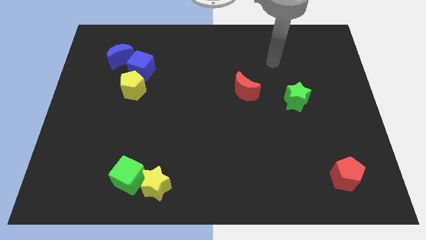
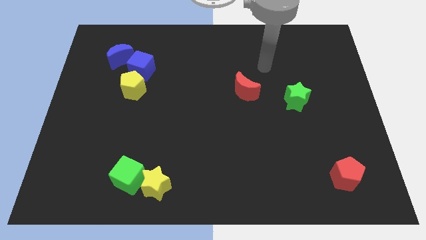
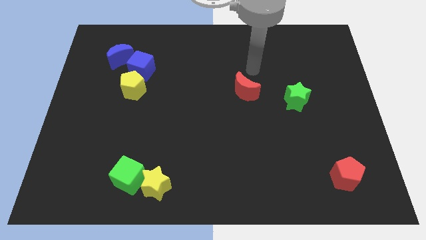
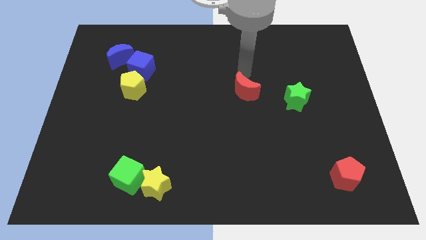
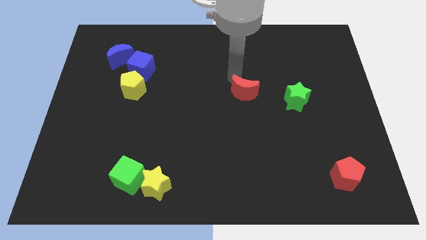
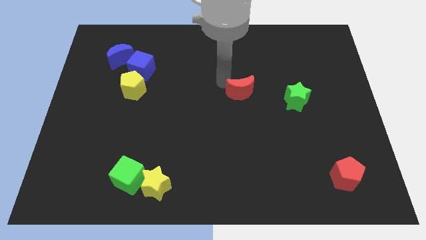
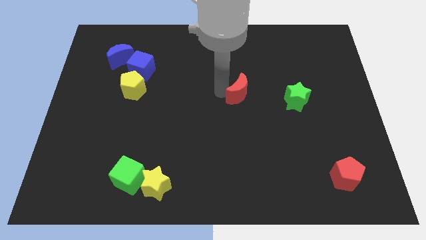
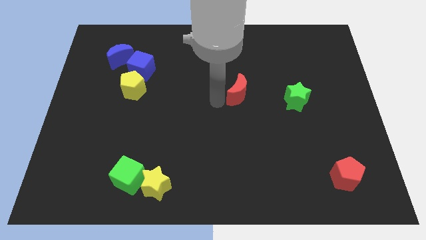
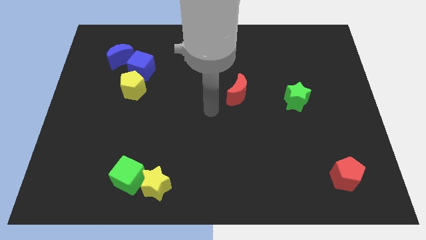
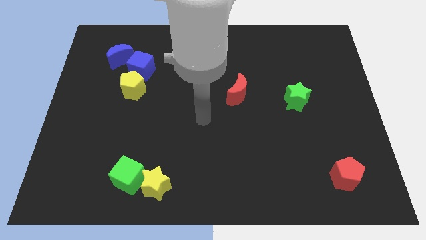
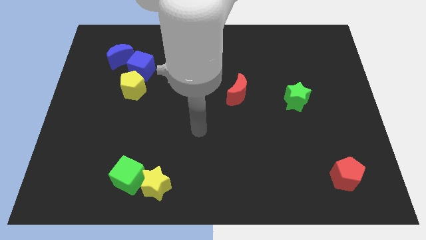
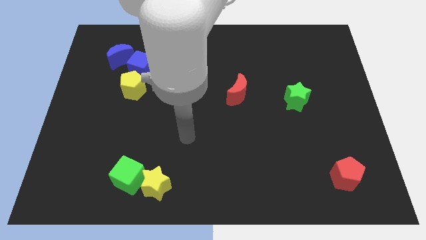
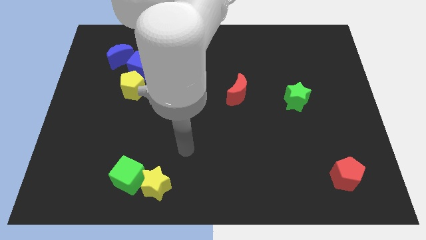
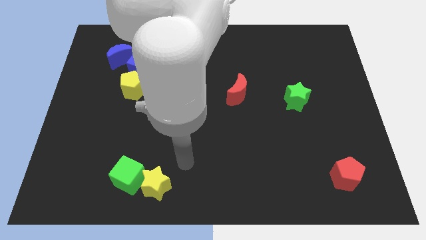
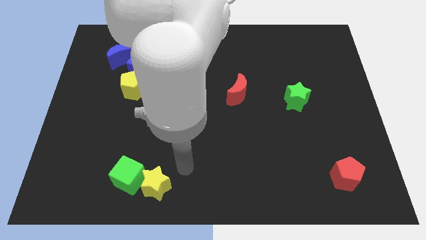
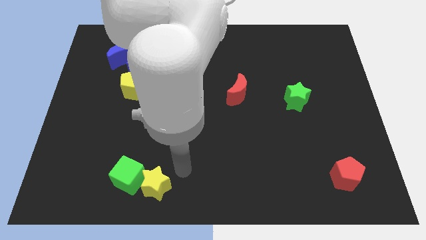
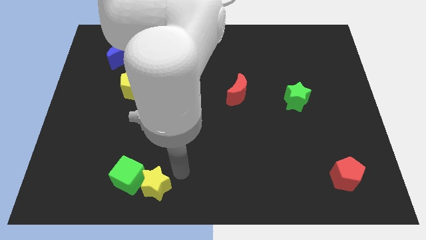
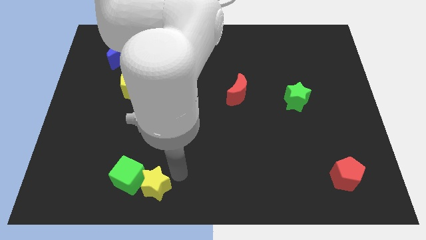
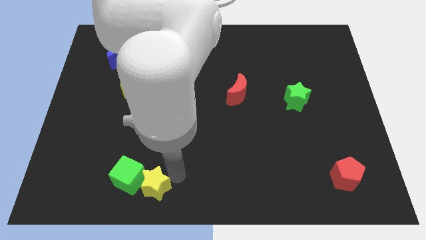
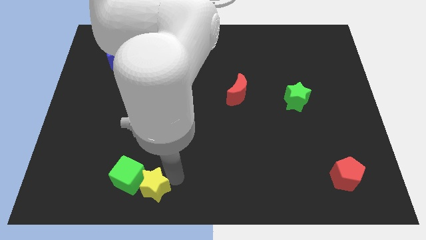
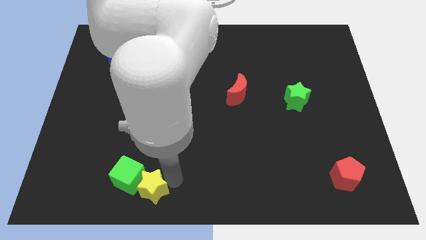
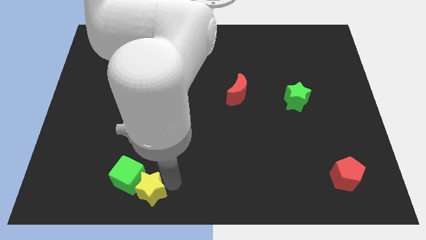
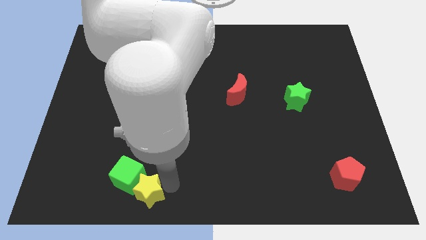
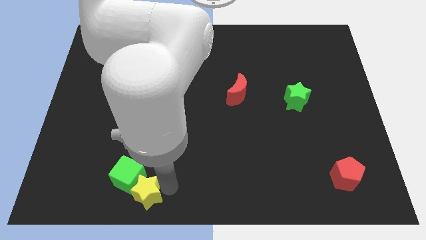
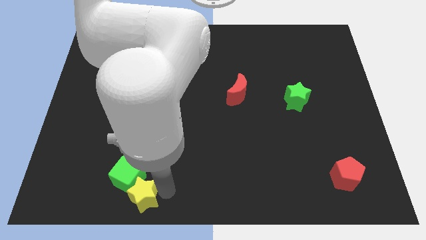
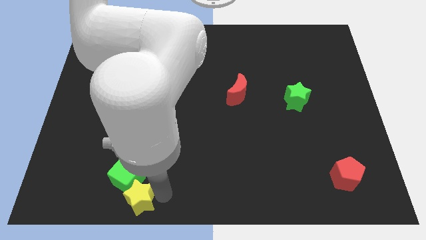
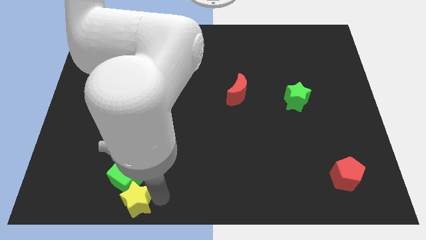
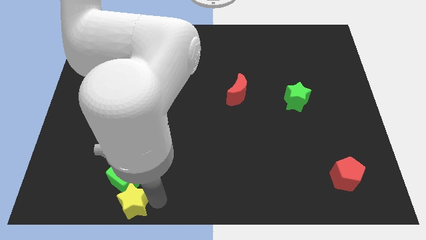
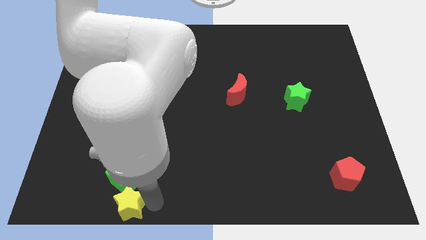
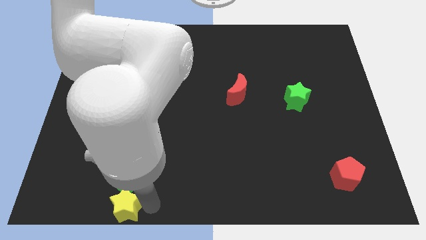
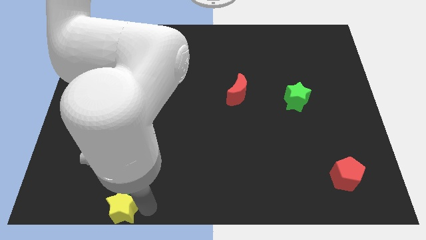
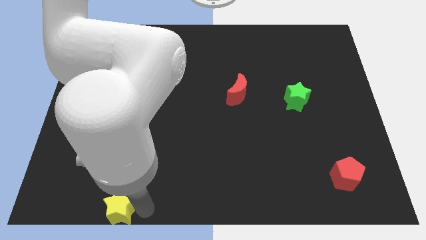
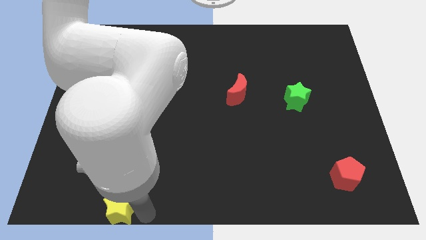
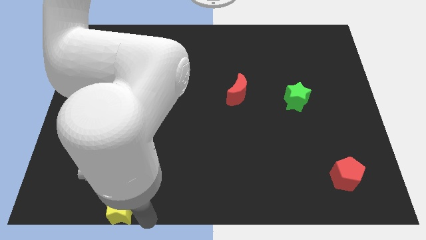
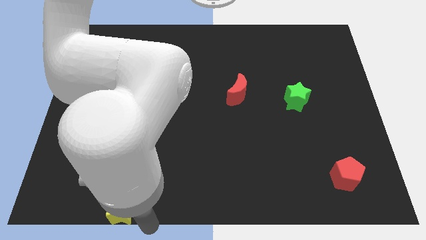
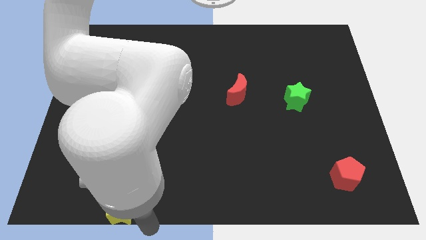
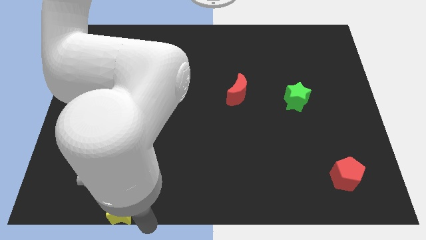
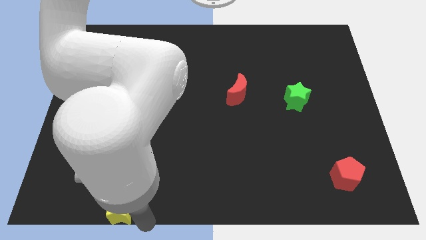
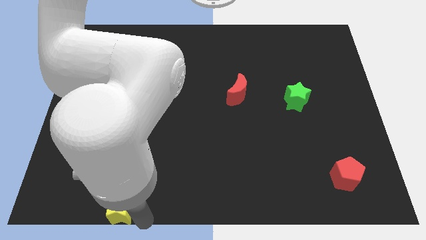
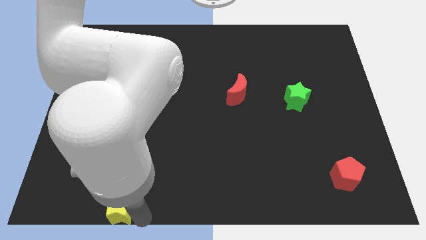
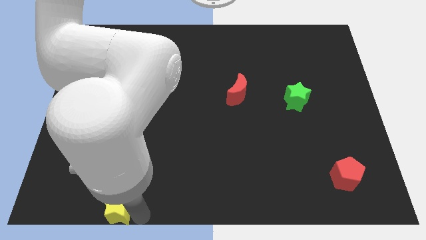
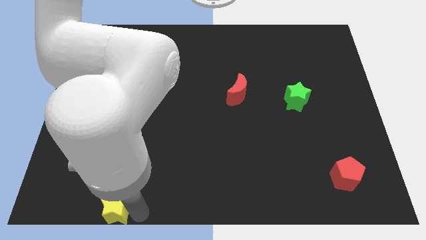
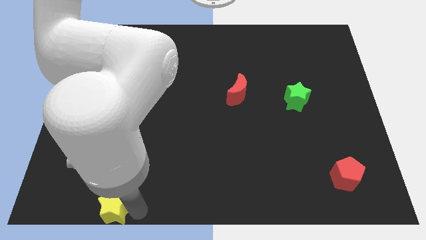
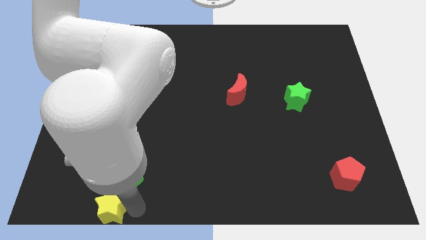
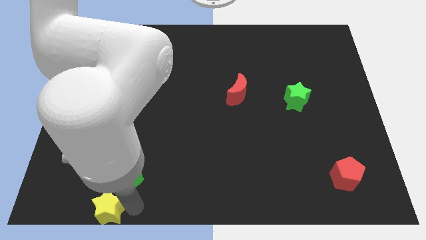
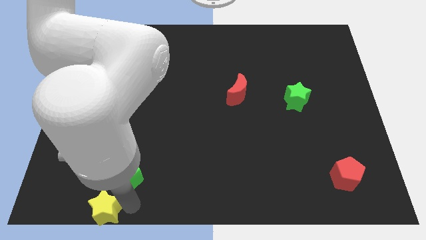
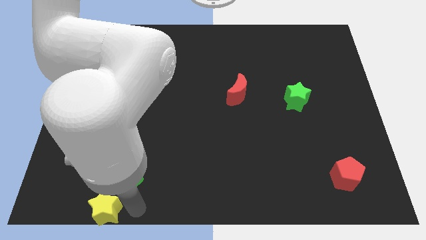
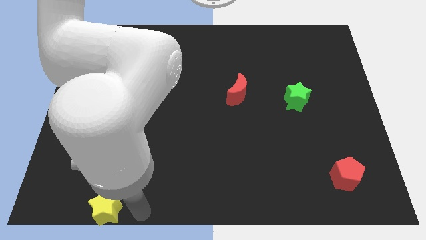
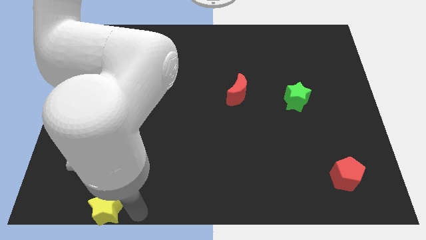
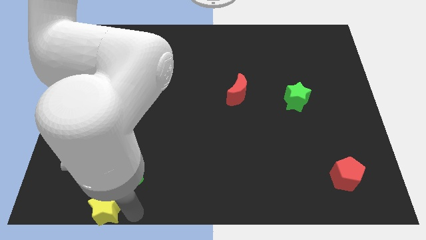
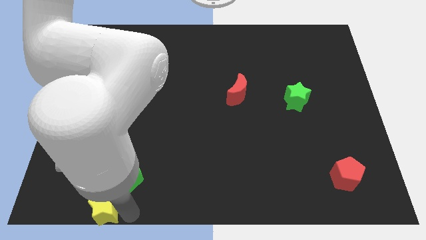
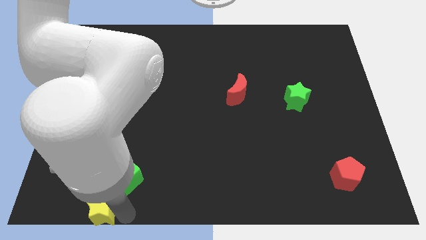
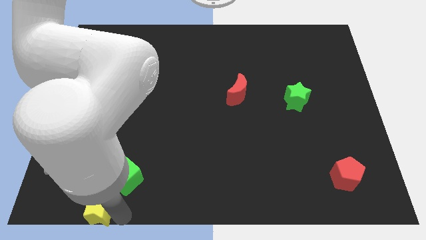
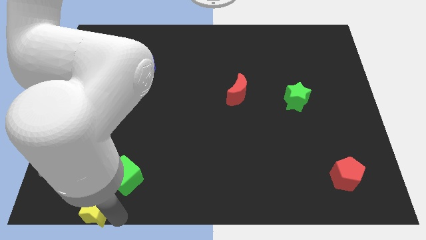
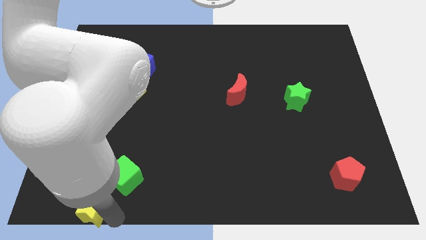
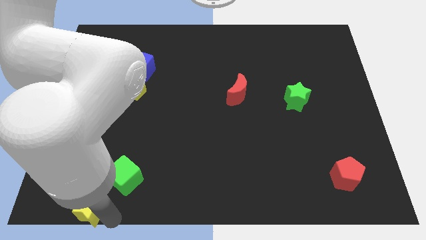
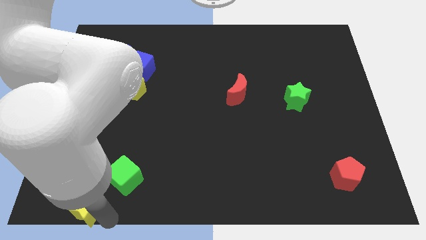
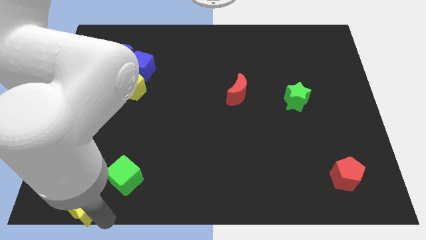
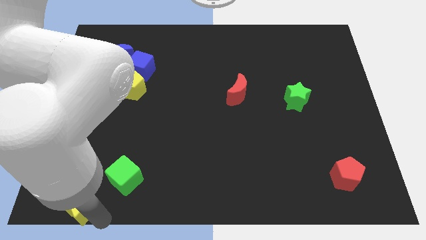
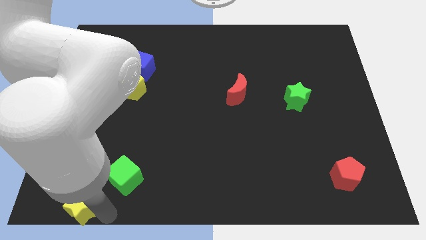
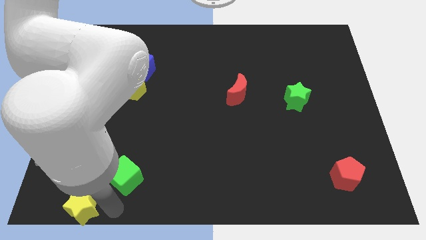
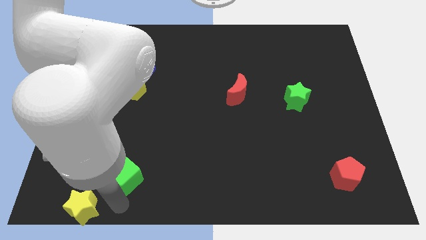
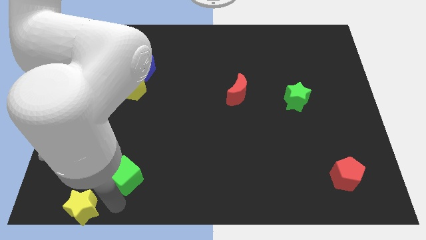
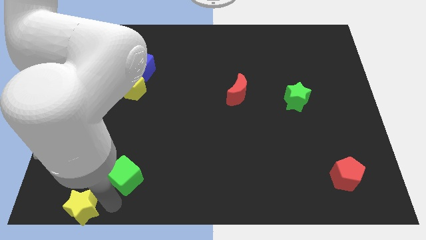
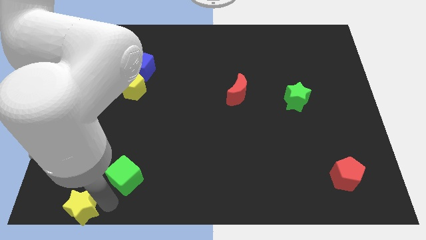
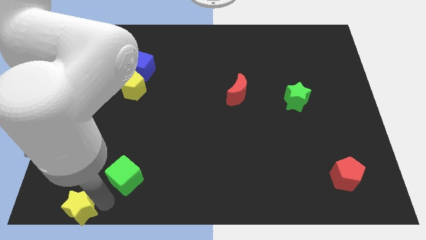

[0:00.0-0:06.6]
push the yellow star to the bottom left corner

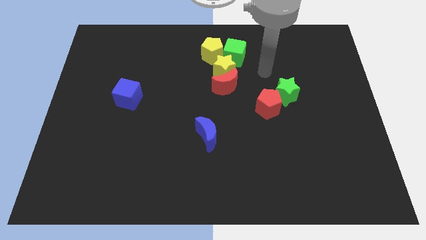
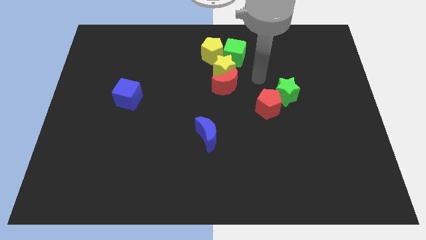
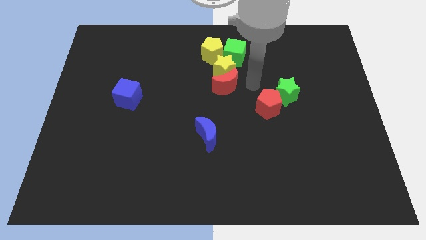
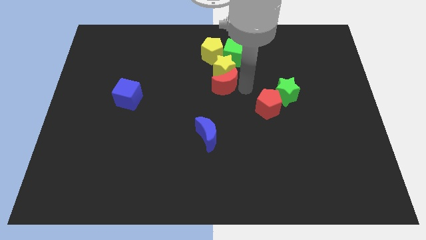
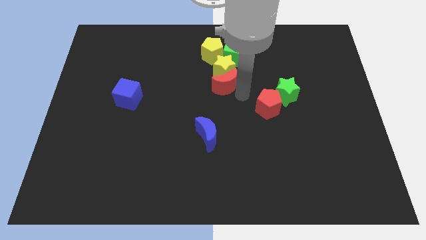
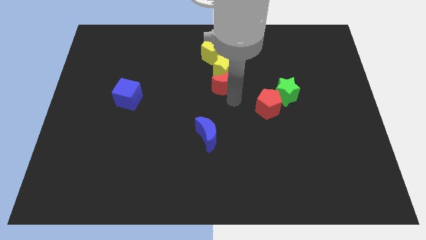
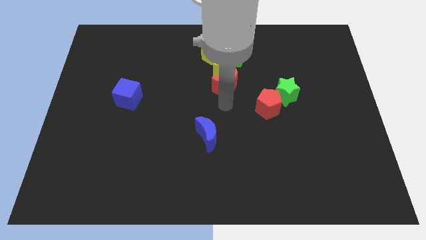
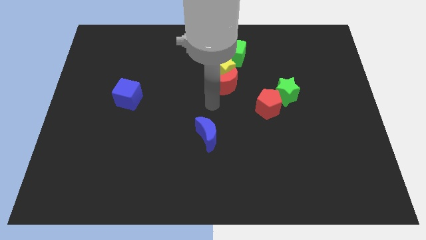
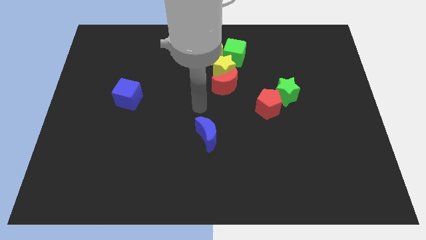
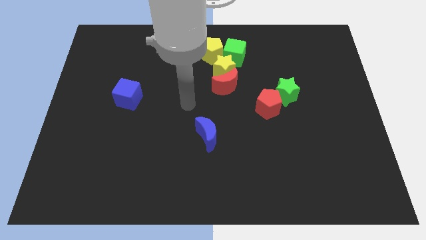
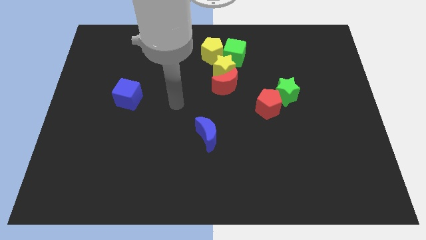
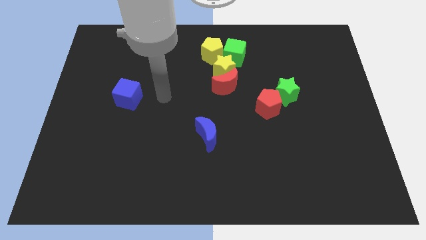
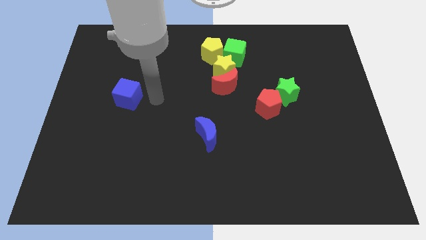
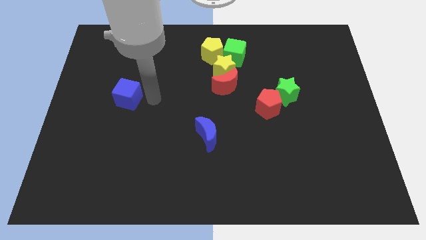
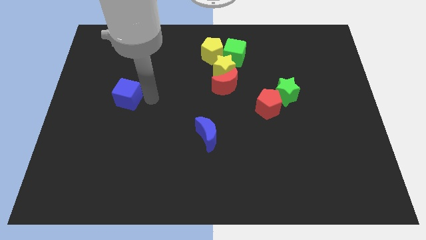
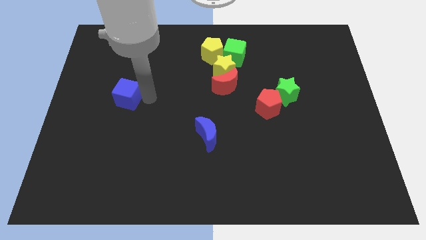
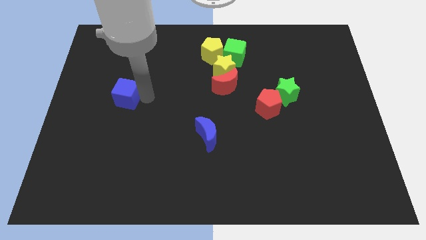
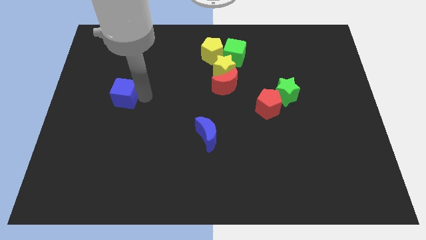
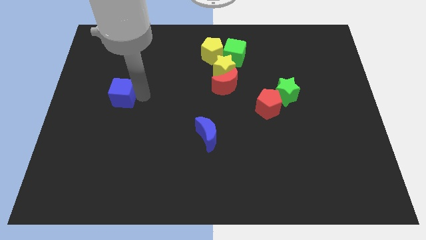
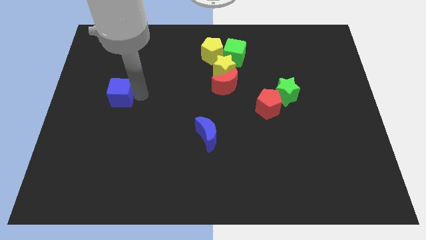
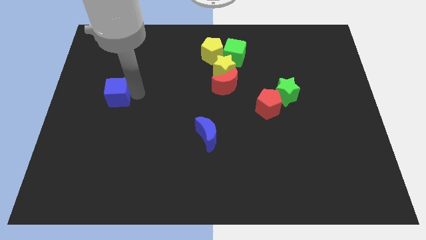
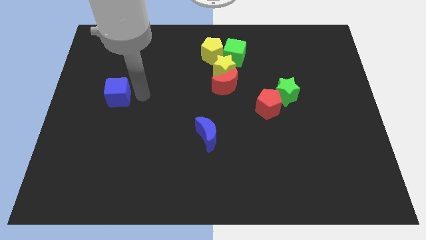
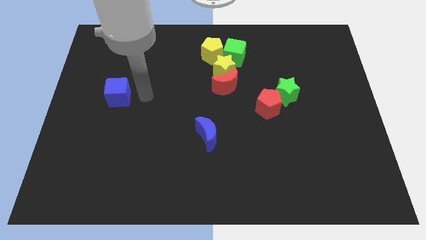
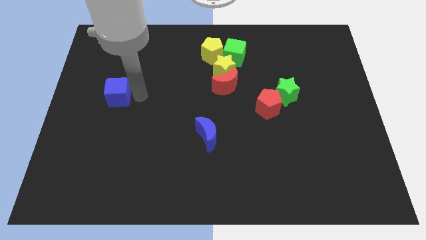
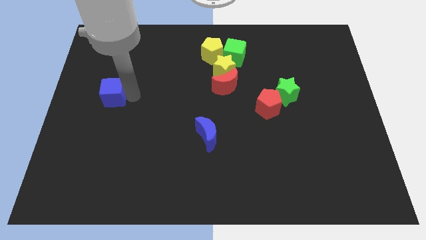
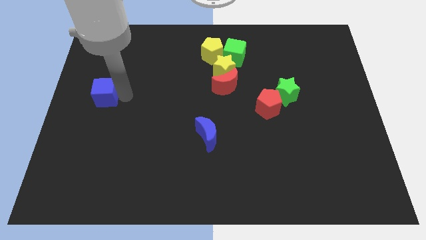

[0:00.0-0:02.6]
push the blue cube to the center left
